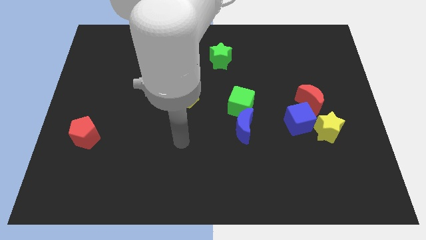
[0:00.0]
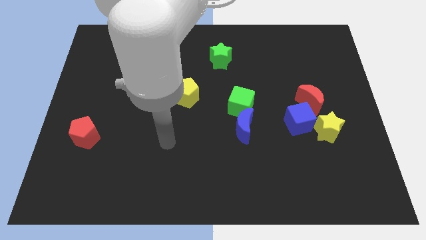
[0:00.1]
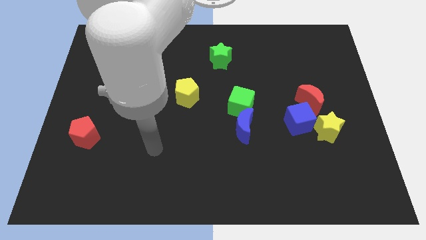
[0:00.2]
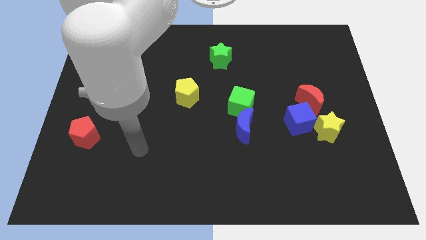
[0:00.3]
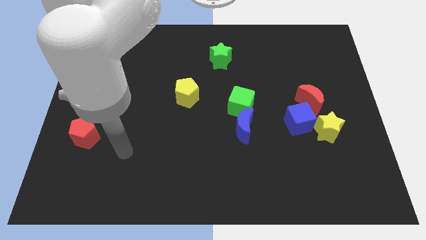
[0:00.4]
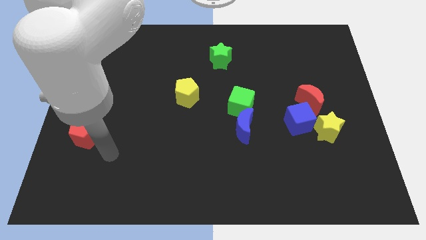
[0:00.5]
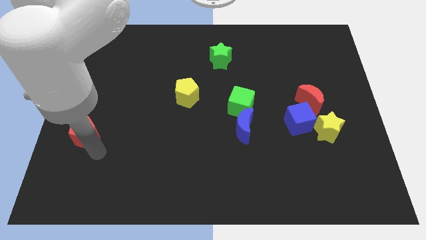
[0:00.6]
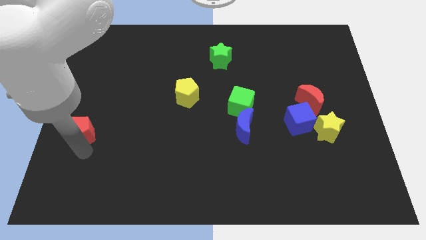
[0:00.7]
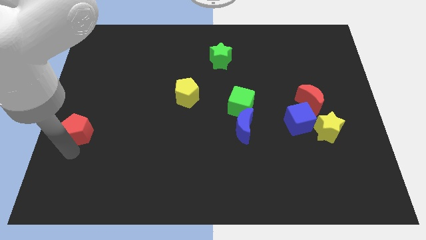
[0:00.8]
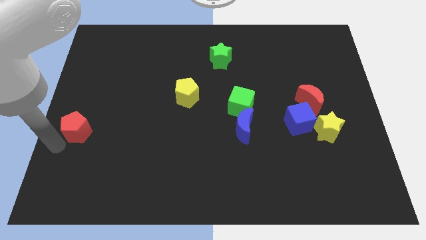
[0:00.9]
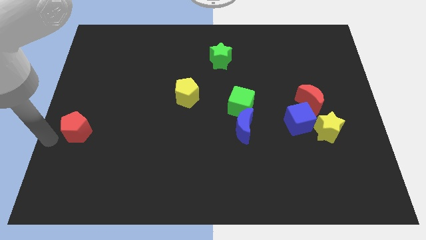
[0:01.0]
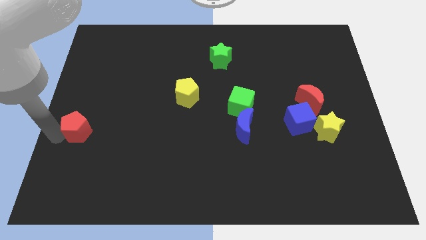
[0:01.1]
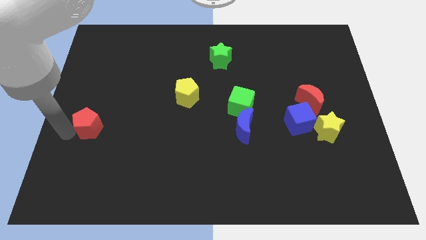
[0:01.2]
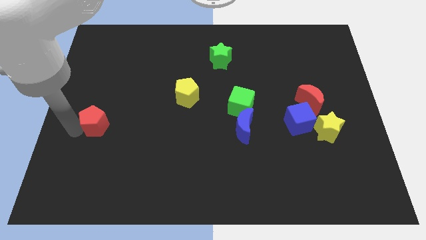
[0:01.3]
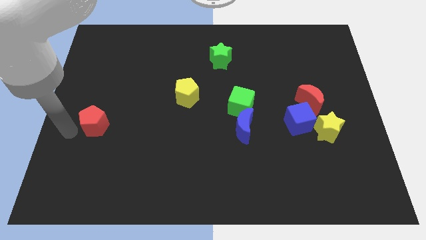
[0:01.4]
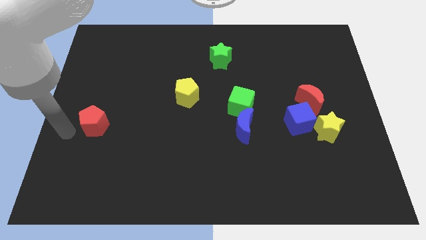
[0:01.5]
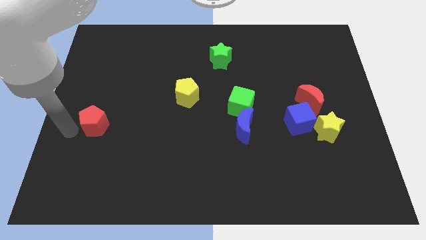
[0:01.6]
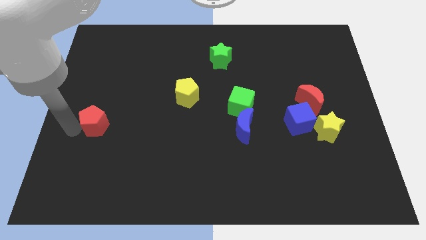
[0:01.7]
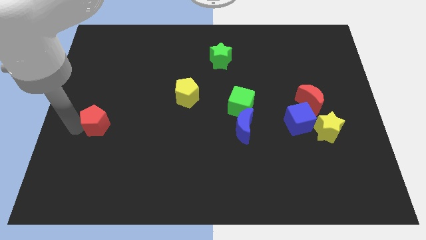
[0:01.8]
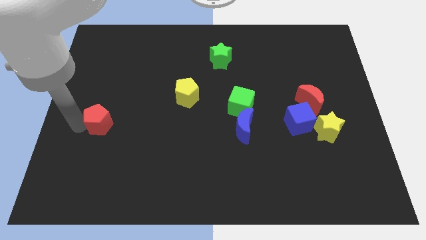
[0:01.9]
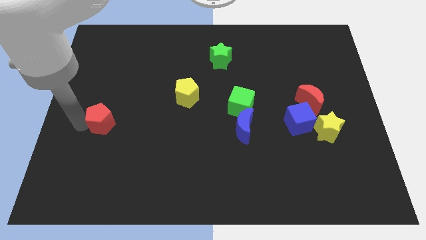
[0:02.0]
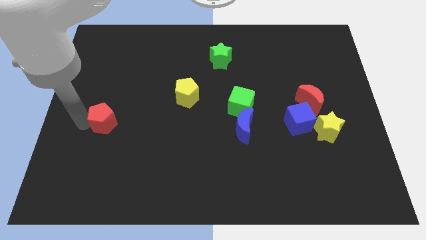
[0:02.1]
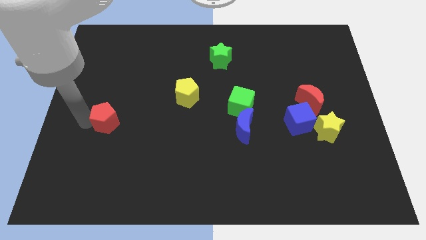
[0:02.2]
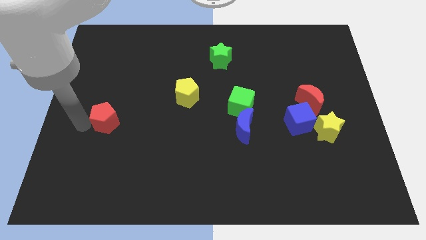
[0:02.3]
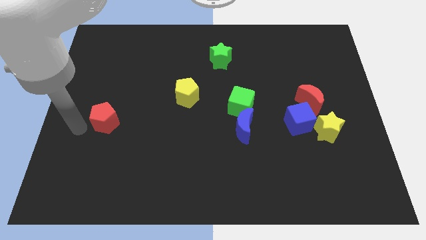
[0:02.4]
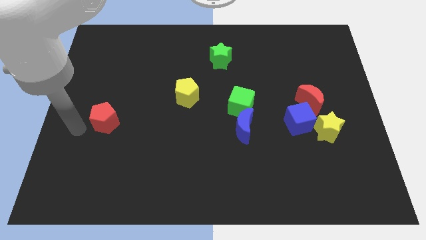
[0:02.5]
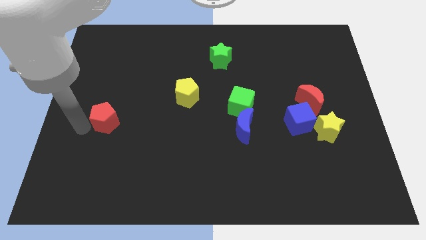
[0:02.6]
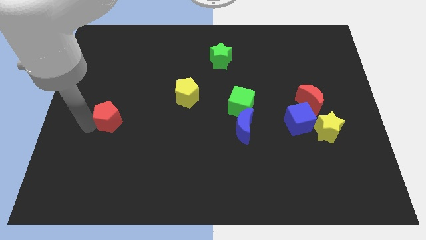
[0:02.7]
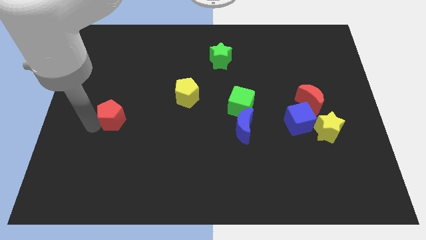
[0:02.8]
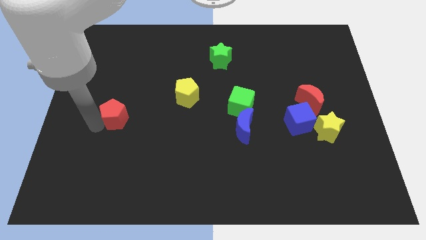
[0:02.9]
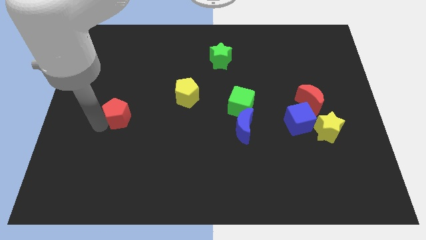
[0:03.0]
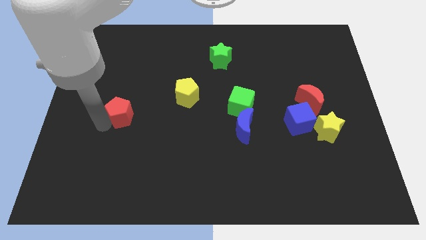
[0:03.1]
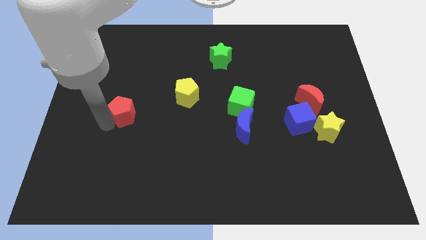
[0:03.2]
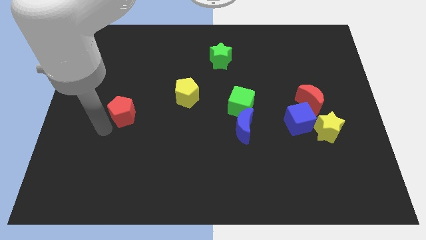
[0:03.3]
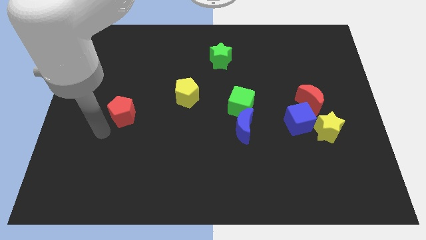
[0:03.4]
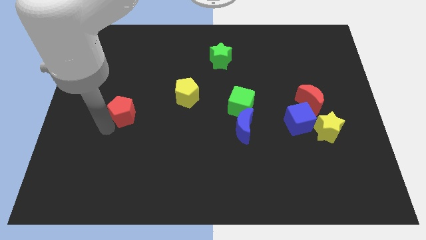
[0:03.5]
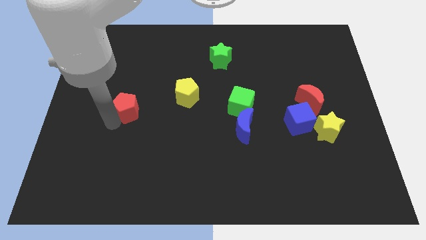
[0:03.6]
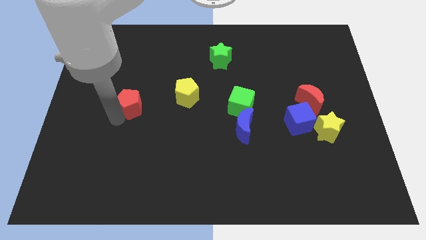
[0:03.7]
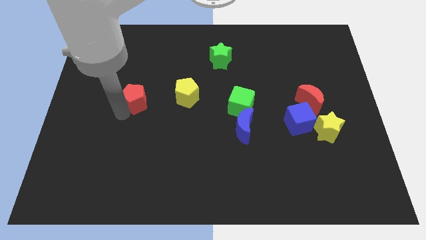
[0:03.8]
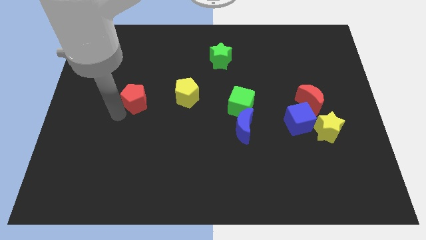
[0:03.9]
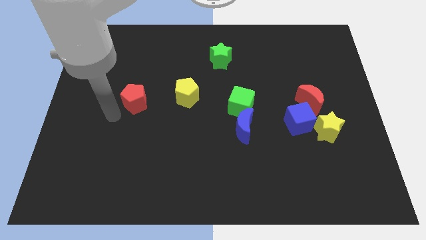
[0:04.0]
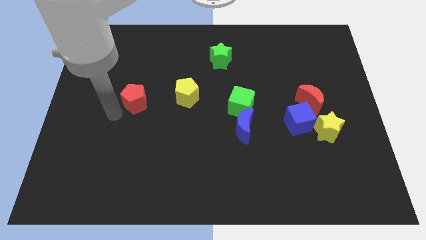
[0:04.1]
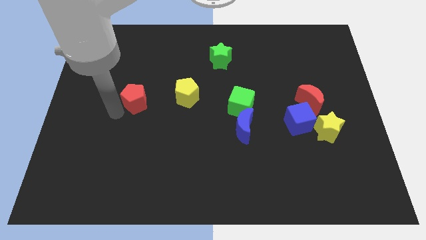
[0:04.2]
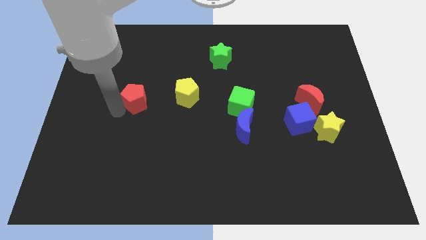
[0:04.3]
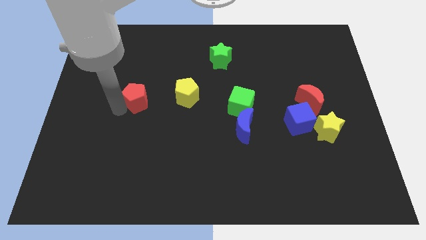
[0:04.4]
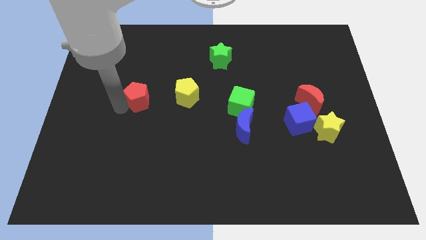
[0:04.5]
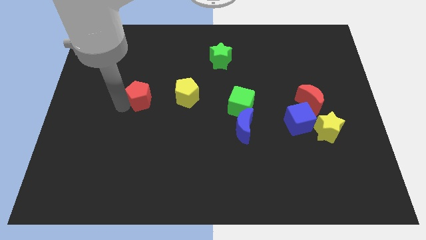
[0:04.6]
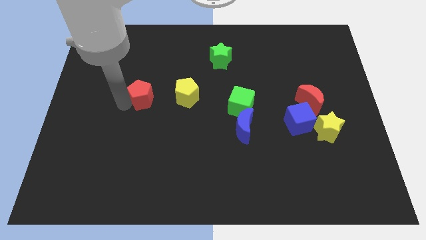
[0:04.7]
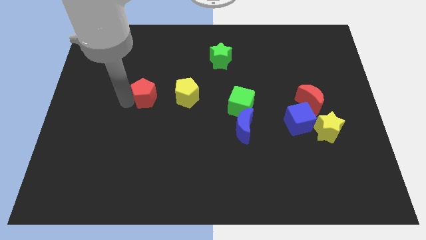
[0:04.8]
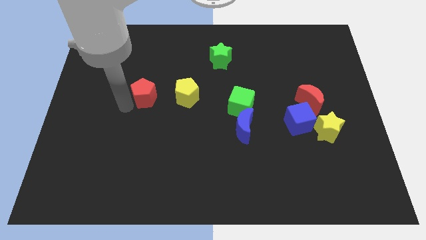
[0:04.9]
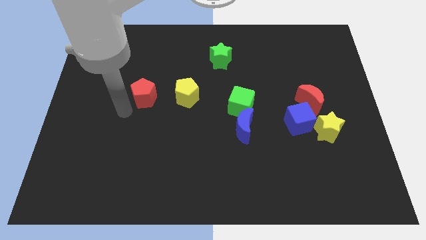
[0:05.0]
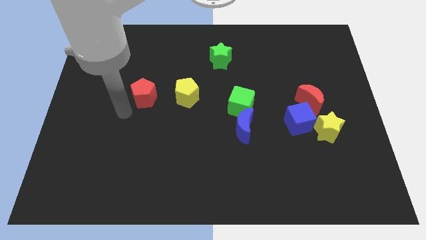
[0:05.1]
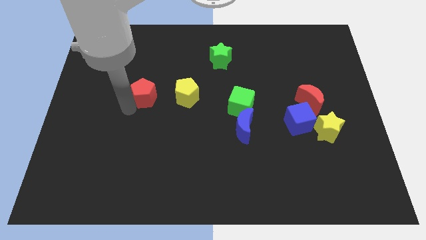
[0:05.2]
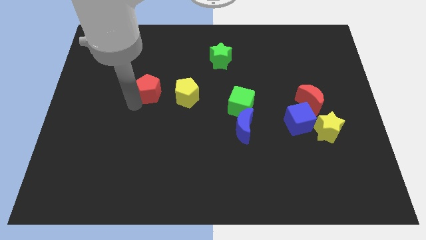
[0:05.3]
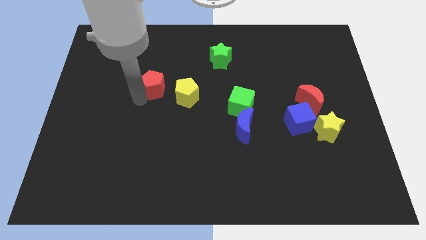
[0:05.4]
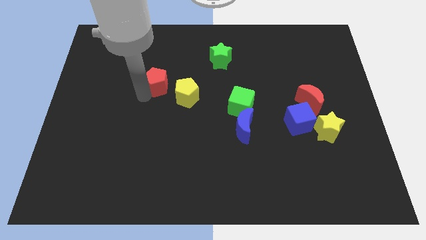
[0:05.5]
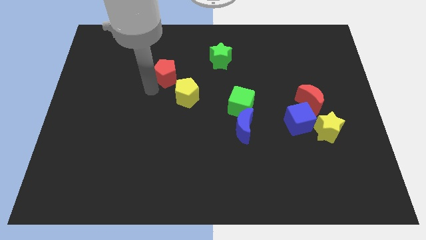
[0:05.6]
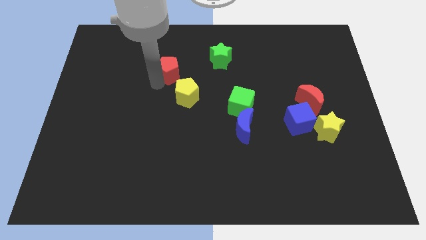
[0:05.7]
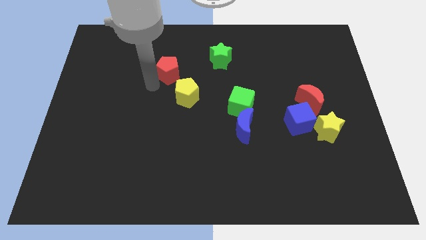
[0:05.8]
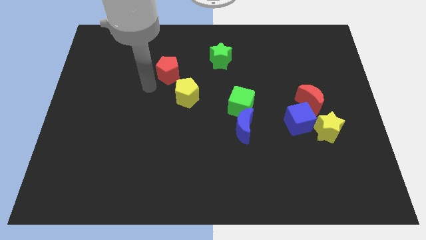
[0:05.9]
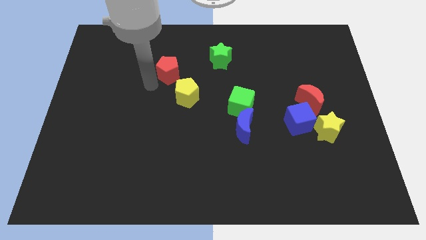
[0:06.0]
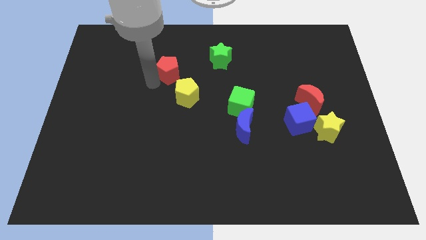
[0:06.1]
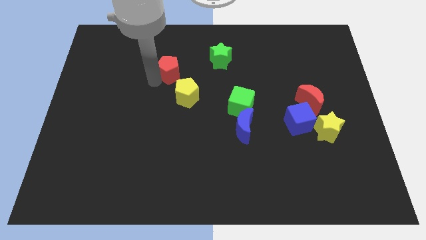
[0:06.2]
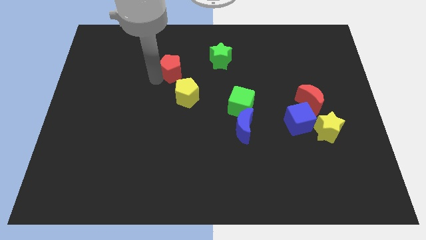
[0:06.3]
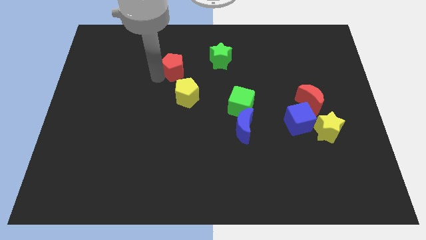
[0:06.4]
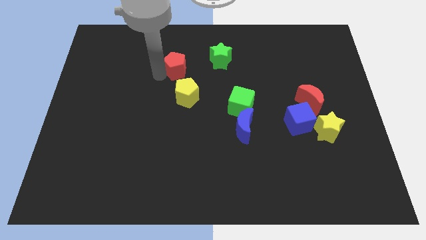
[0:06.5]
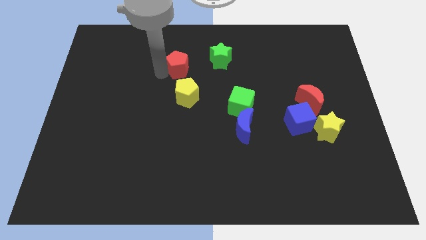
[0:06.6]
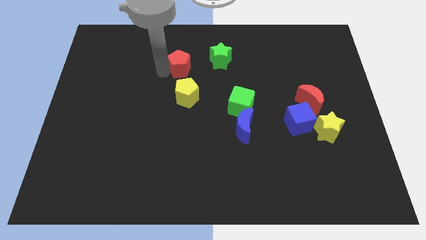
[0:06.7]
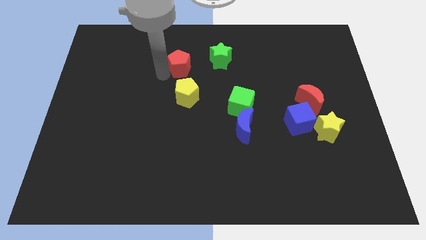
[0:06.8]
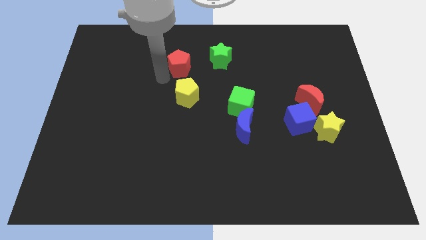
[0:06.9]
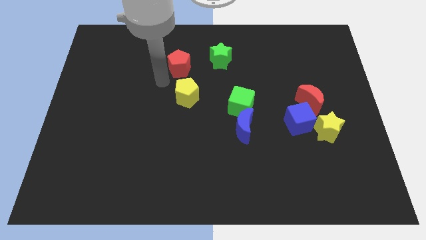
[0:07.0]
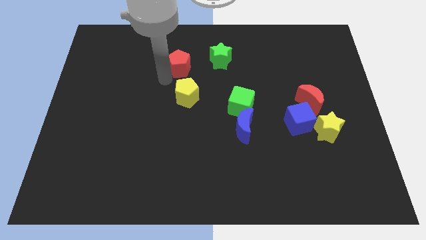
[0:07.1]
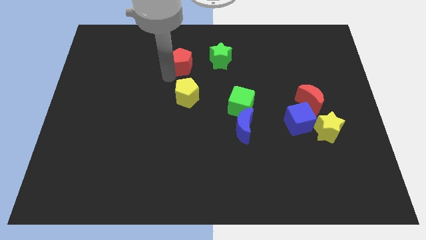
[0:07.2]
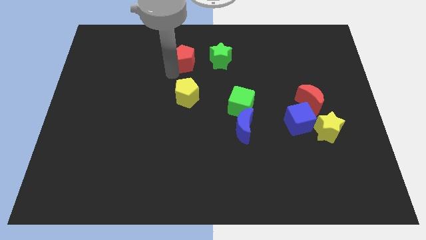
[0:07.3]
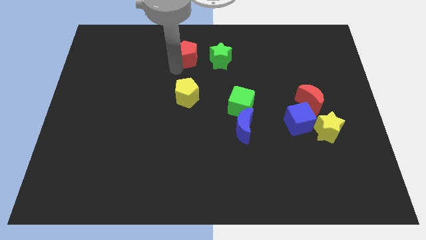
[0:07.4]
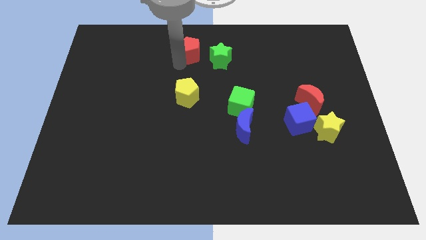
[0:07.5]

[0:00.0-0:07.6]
push the red pentagon to the top side
